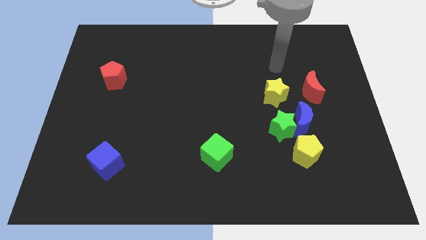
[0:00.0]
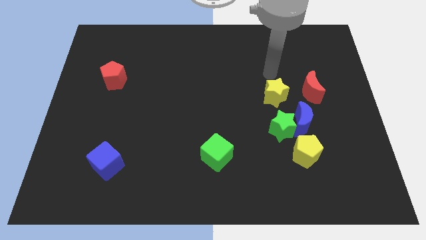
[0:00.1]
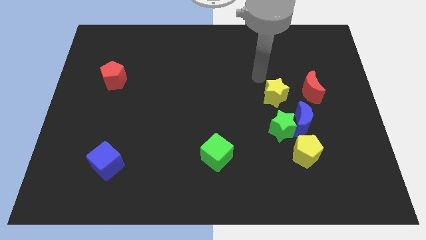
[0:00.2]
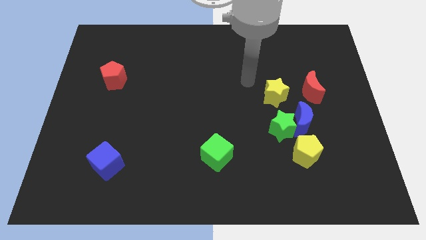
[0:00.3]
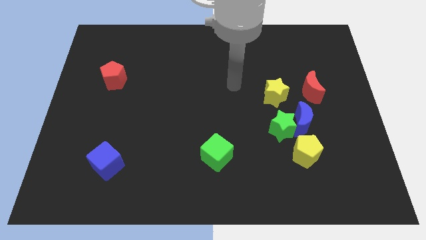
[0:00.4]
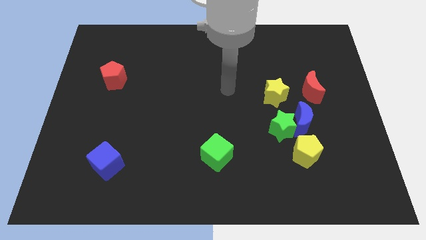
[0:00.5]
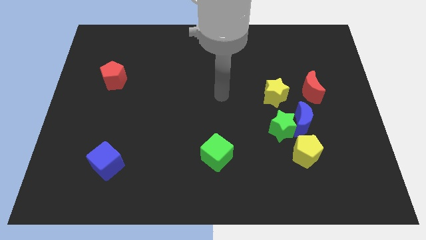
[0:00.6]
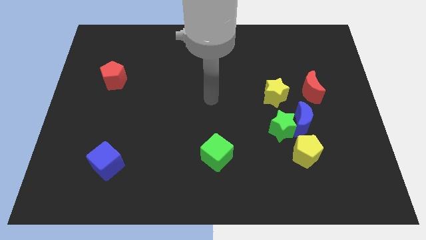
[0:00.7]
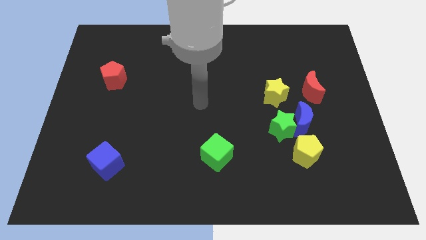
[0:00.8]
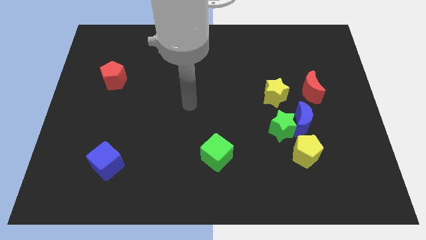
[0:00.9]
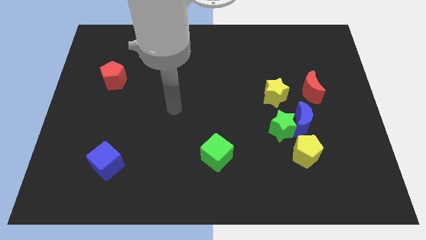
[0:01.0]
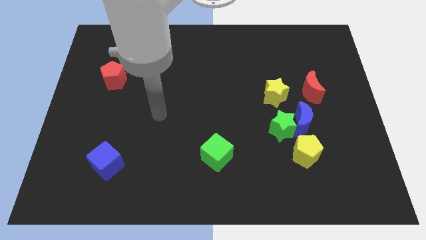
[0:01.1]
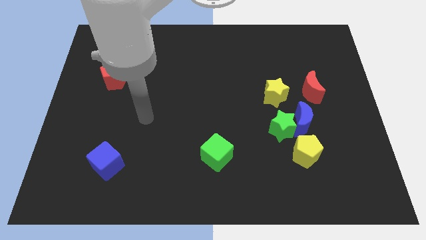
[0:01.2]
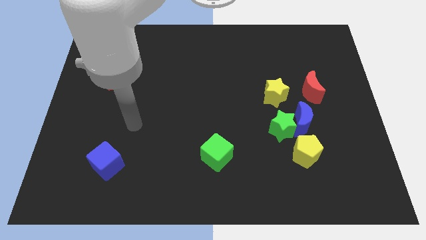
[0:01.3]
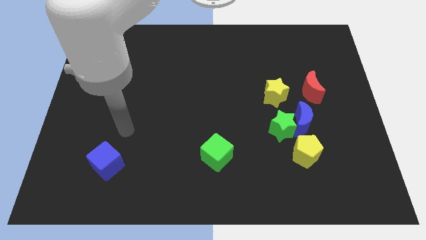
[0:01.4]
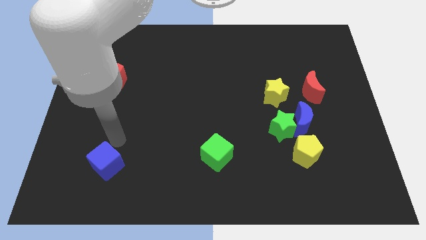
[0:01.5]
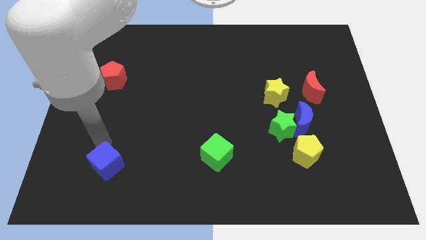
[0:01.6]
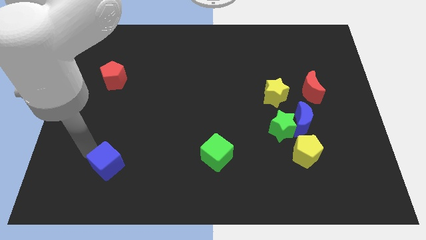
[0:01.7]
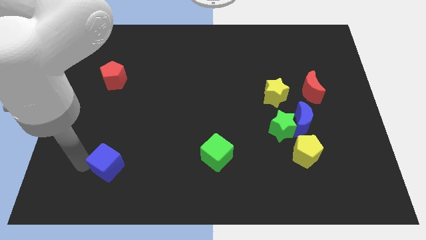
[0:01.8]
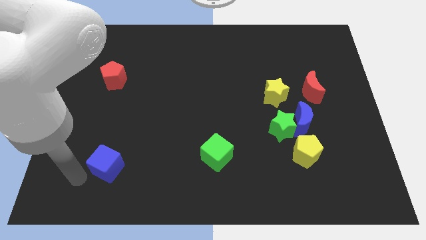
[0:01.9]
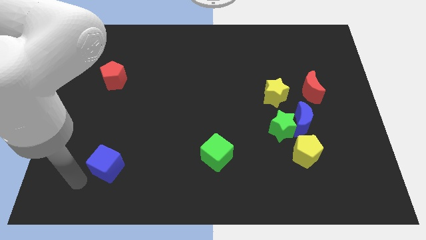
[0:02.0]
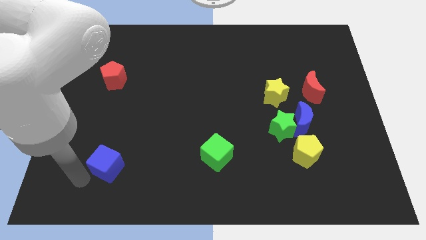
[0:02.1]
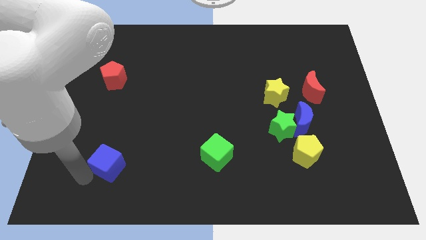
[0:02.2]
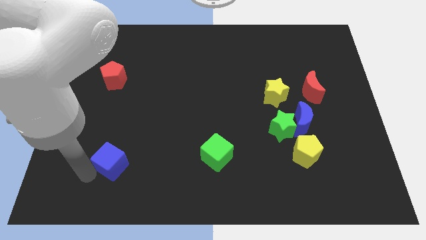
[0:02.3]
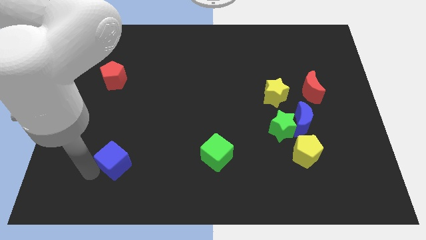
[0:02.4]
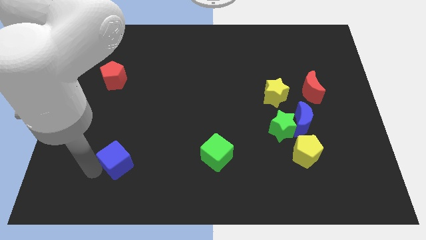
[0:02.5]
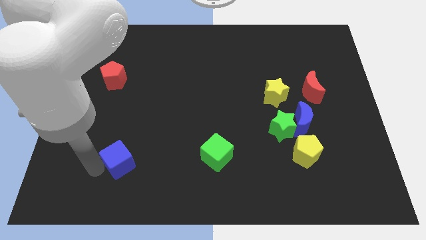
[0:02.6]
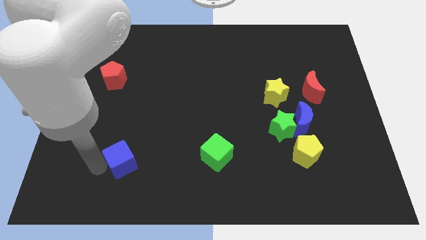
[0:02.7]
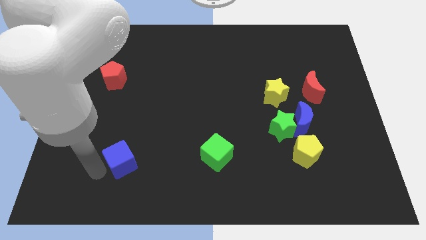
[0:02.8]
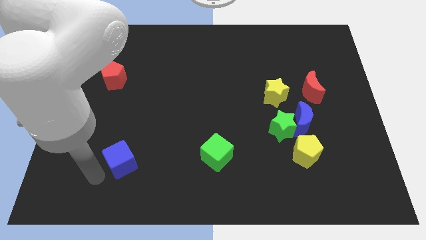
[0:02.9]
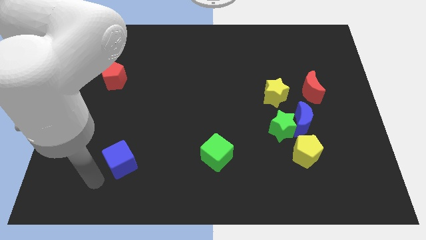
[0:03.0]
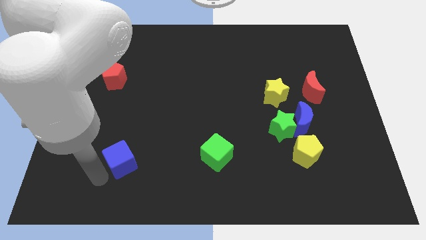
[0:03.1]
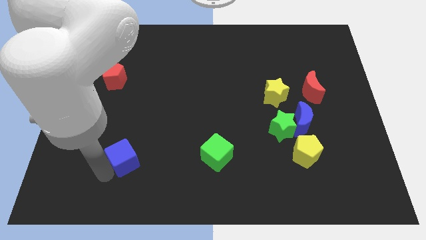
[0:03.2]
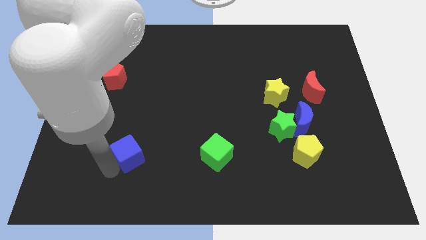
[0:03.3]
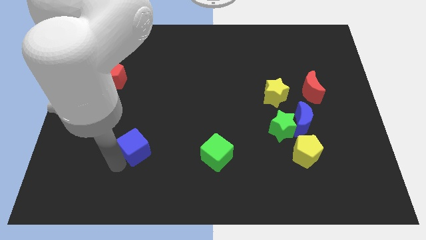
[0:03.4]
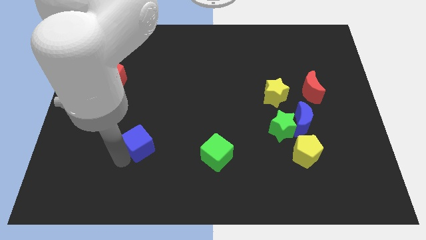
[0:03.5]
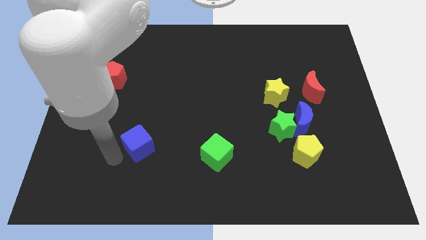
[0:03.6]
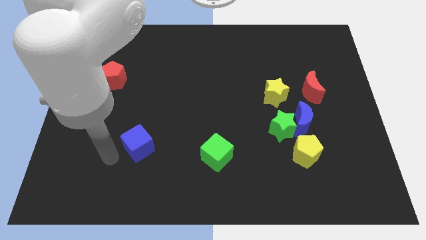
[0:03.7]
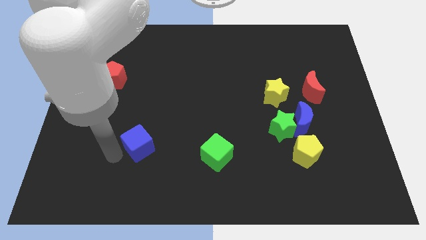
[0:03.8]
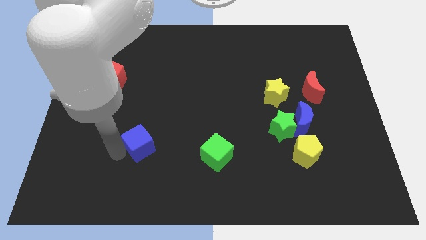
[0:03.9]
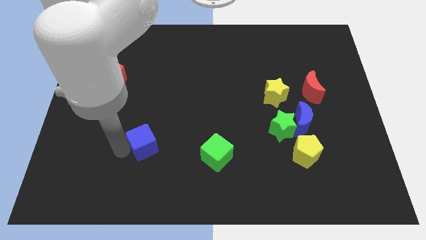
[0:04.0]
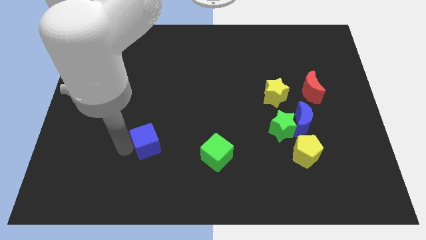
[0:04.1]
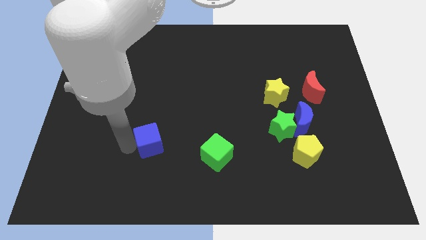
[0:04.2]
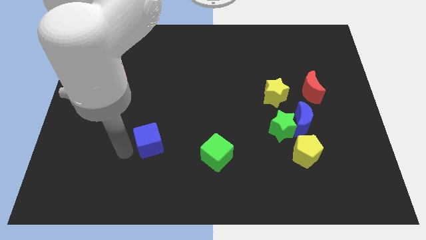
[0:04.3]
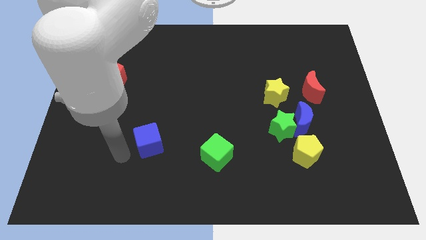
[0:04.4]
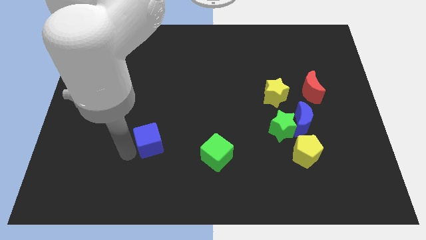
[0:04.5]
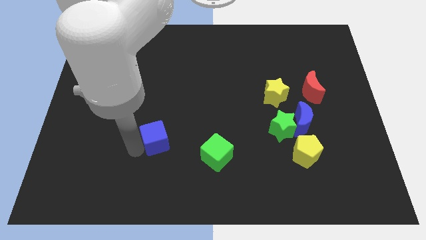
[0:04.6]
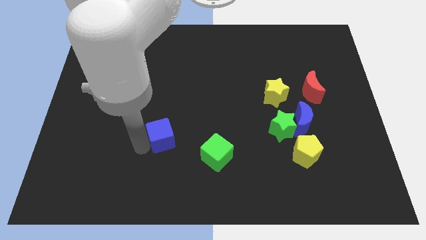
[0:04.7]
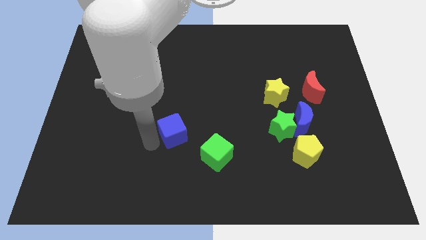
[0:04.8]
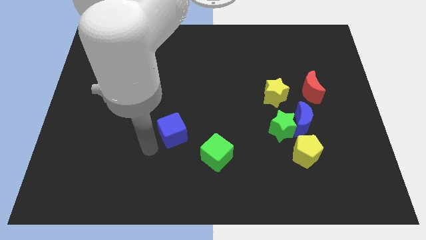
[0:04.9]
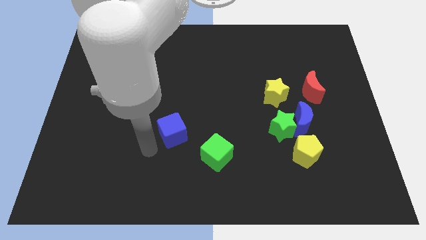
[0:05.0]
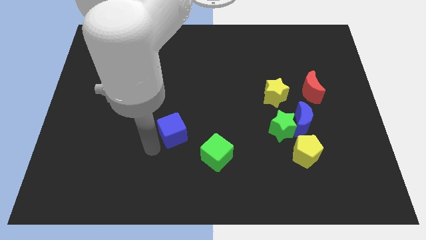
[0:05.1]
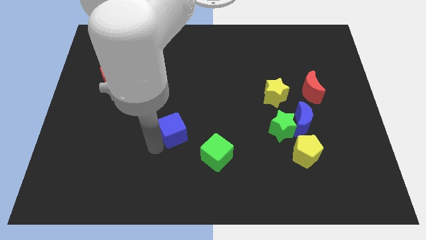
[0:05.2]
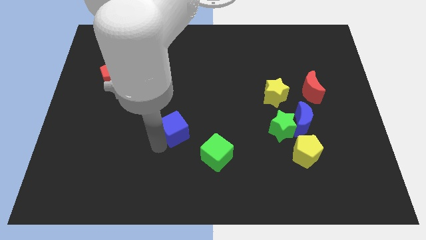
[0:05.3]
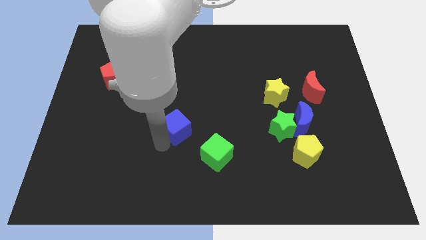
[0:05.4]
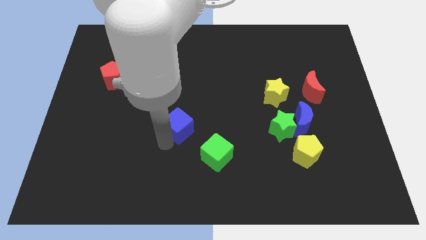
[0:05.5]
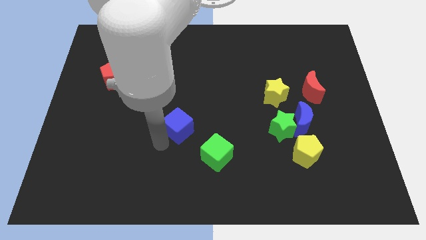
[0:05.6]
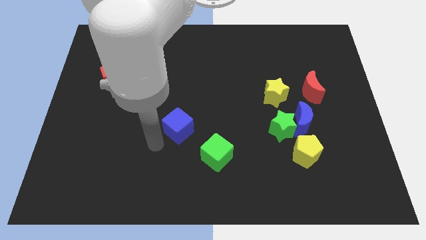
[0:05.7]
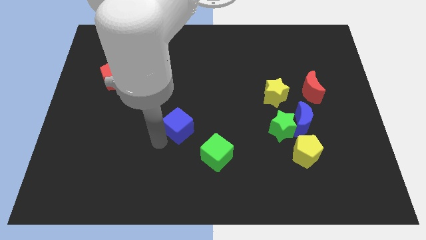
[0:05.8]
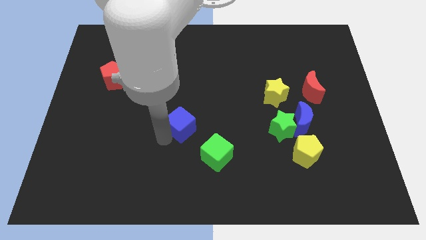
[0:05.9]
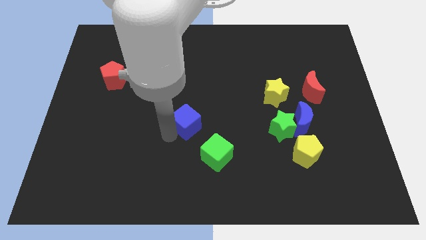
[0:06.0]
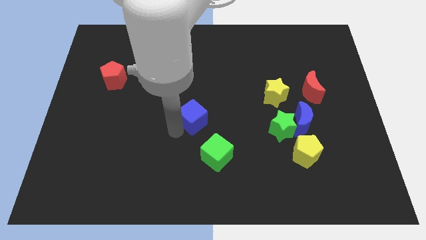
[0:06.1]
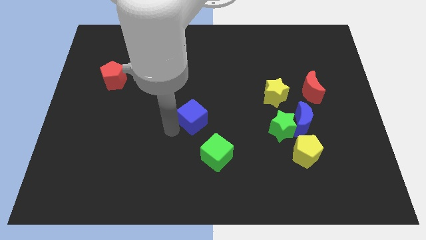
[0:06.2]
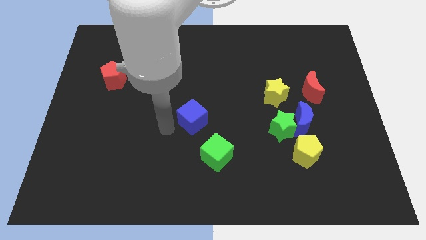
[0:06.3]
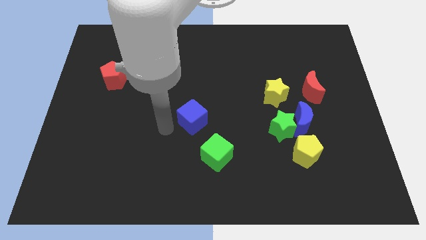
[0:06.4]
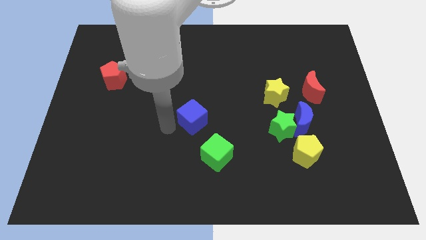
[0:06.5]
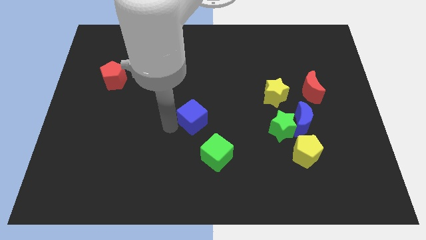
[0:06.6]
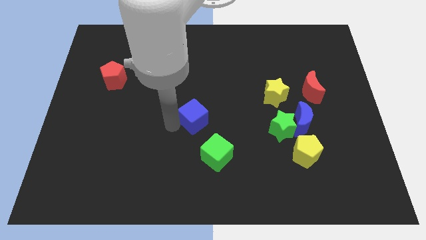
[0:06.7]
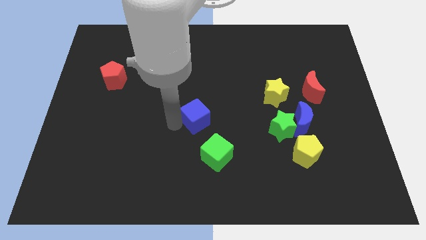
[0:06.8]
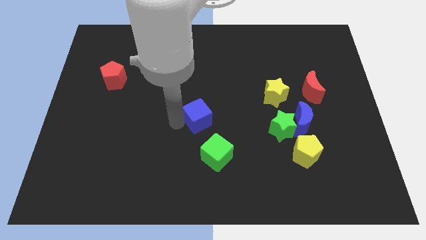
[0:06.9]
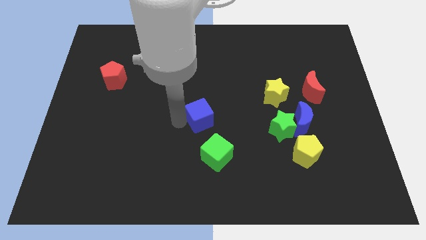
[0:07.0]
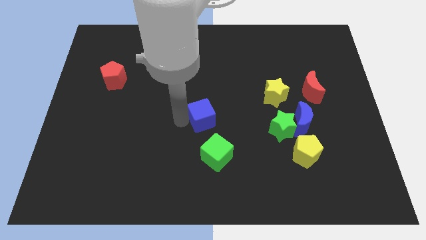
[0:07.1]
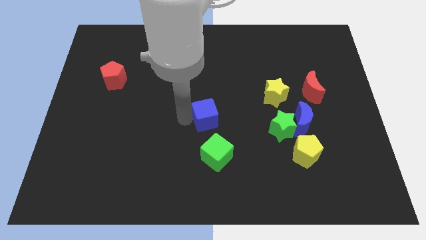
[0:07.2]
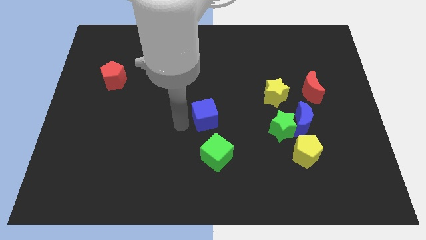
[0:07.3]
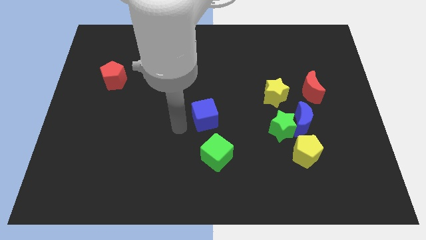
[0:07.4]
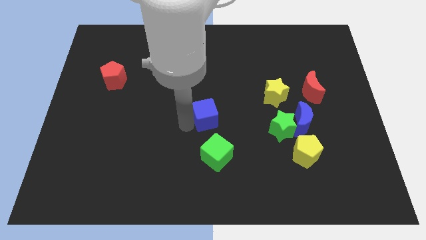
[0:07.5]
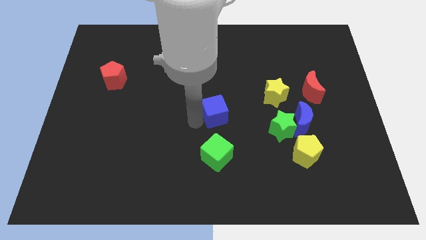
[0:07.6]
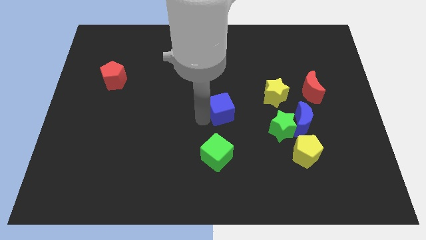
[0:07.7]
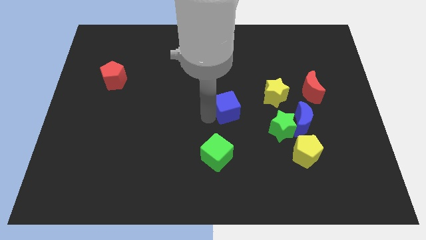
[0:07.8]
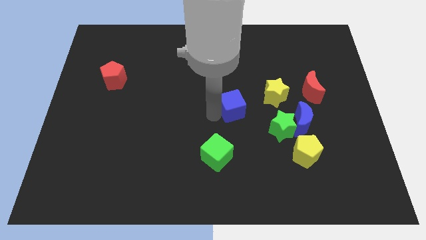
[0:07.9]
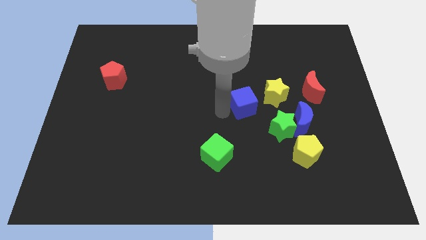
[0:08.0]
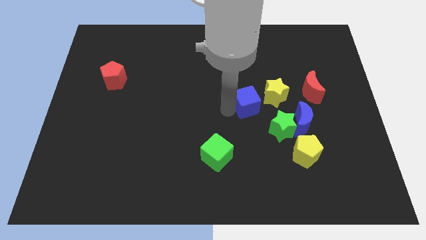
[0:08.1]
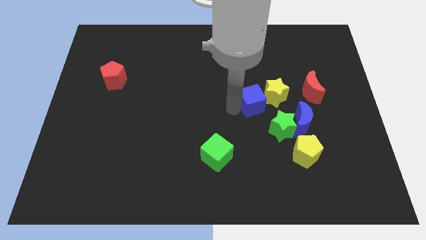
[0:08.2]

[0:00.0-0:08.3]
move the blue cube close to the yellow star
